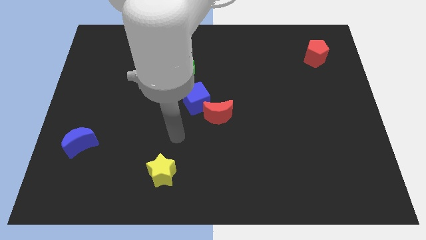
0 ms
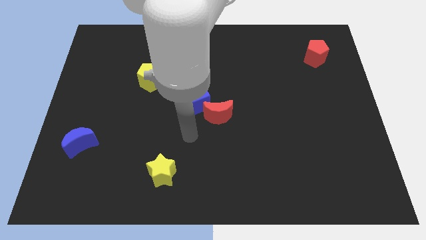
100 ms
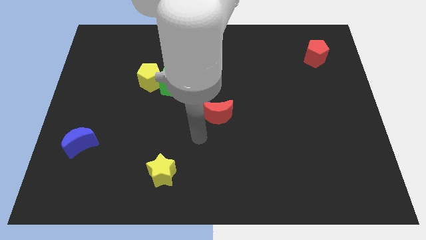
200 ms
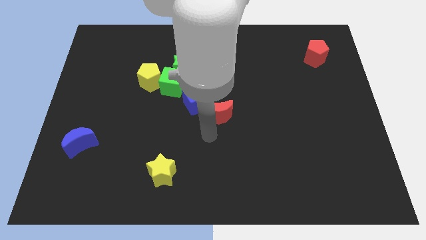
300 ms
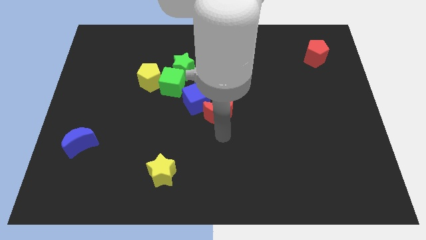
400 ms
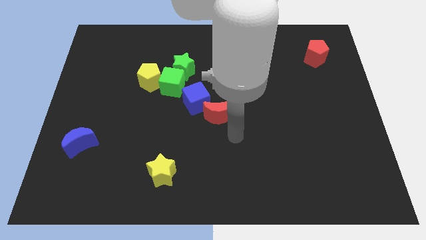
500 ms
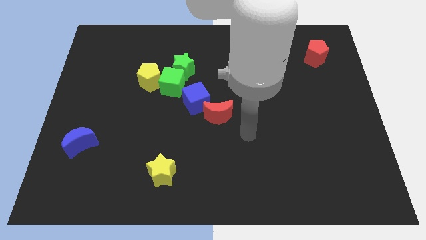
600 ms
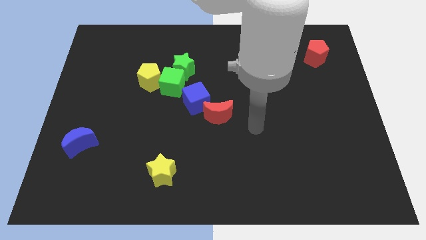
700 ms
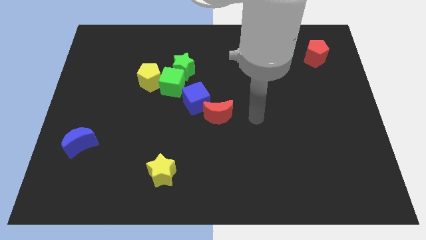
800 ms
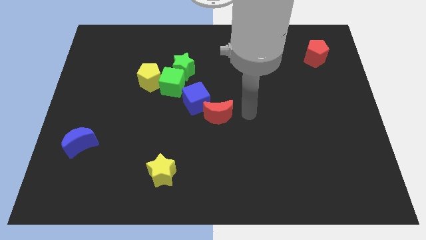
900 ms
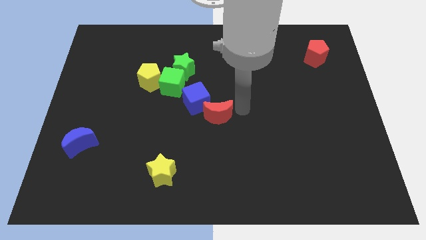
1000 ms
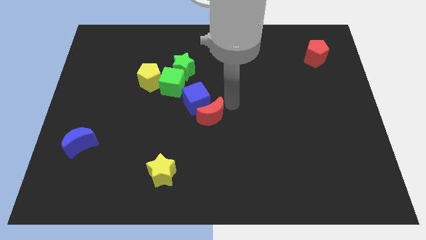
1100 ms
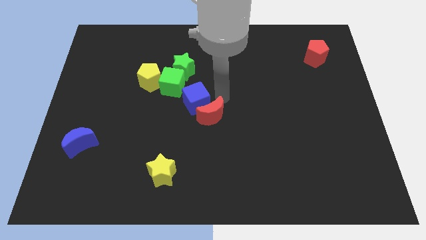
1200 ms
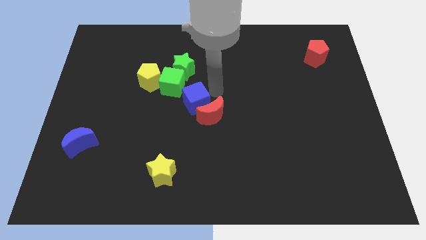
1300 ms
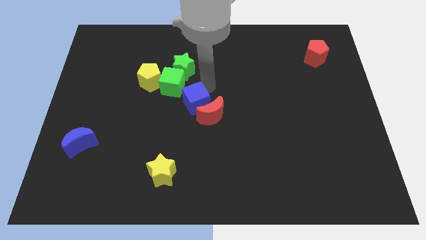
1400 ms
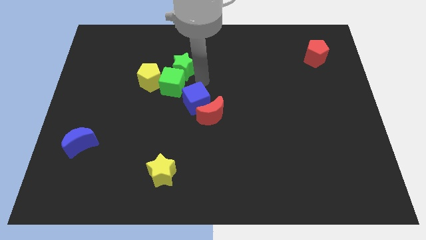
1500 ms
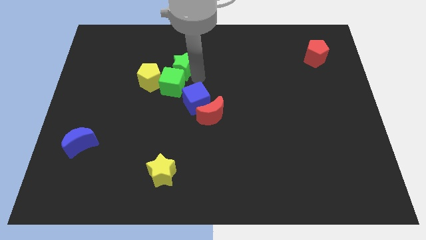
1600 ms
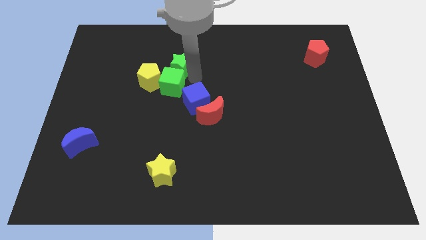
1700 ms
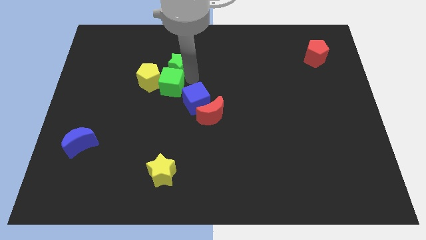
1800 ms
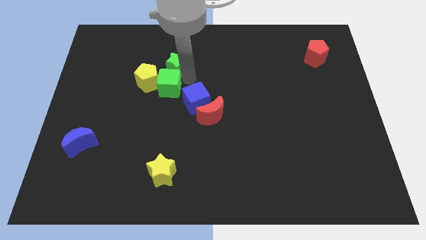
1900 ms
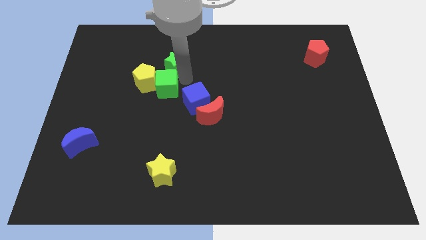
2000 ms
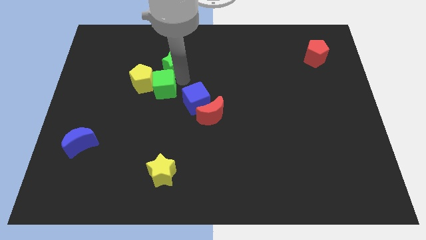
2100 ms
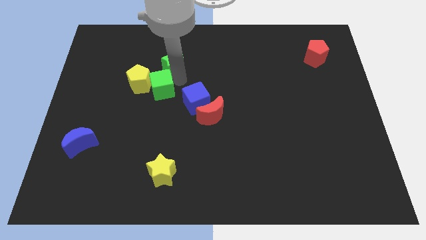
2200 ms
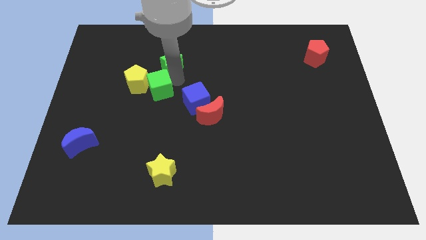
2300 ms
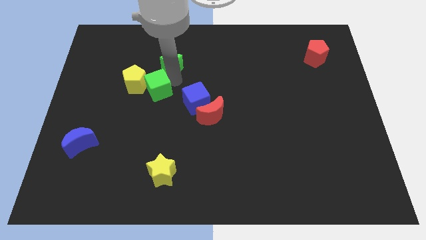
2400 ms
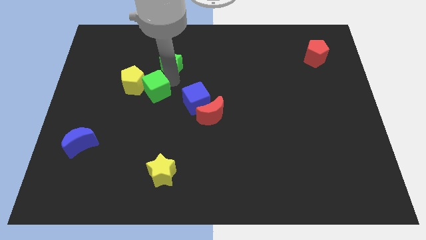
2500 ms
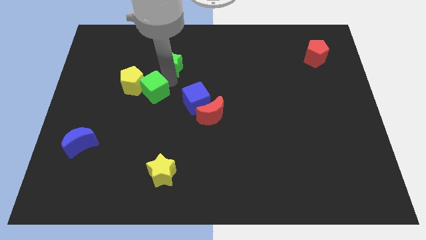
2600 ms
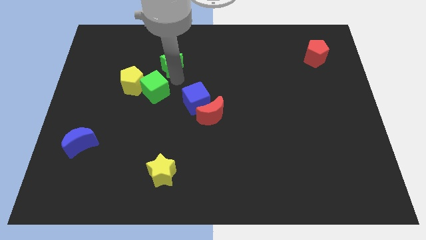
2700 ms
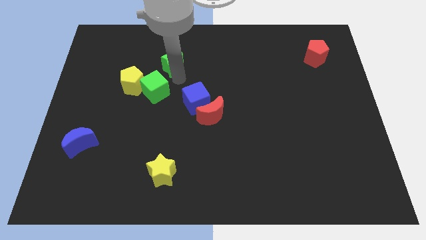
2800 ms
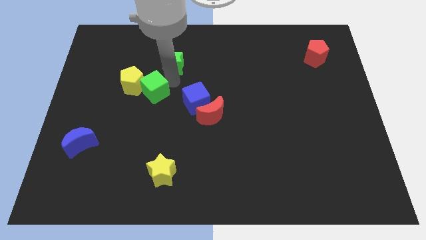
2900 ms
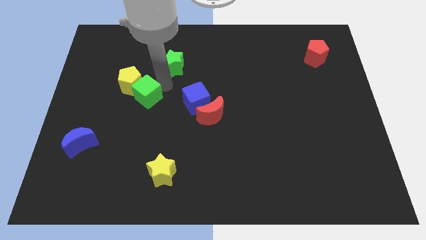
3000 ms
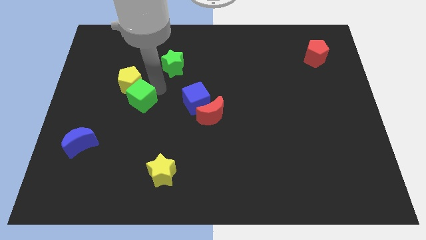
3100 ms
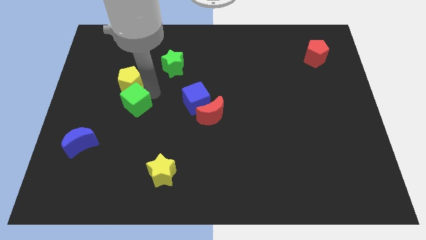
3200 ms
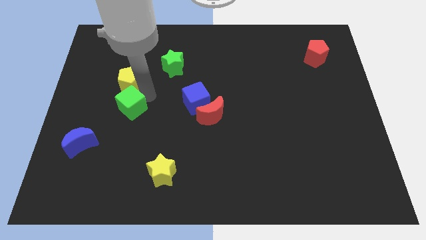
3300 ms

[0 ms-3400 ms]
move the green cube away from the green star, yellow pentagon, and blue cube

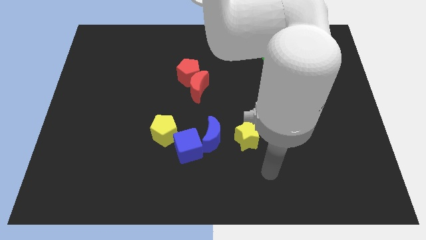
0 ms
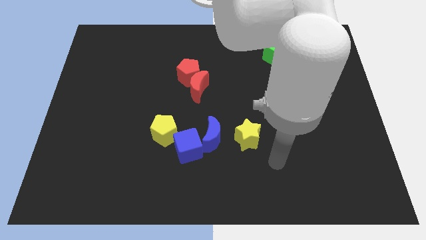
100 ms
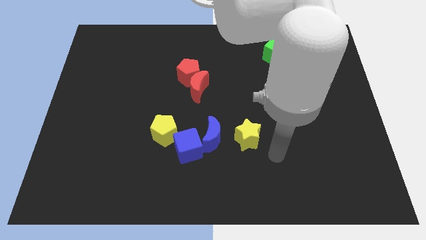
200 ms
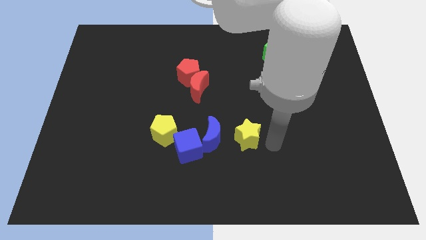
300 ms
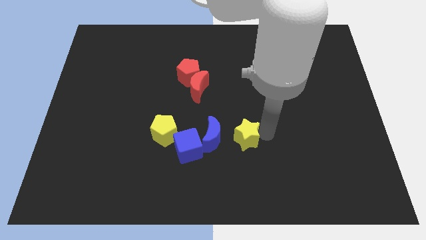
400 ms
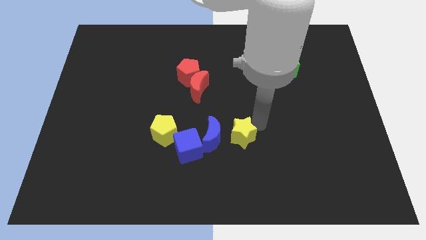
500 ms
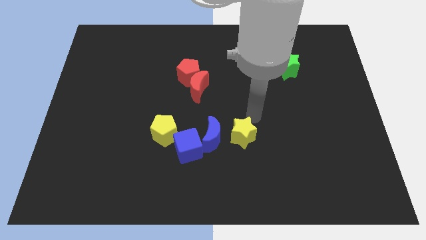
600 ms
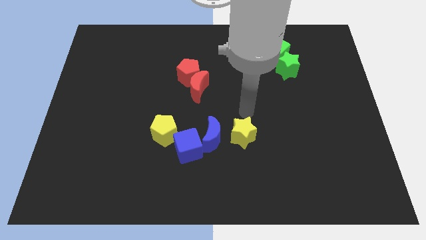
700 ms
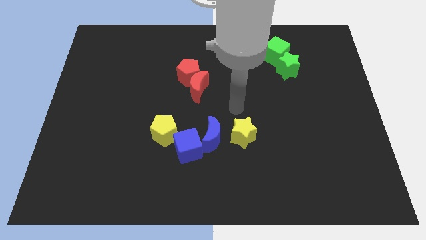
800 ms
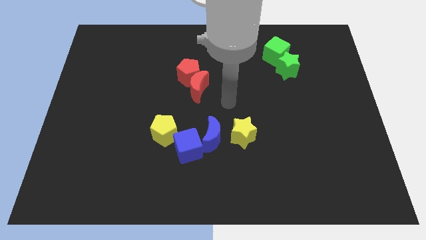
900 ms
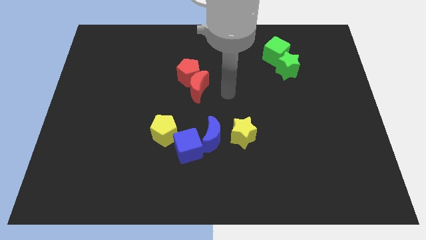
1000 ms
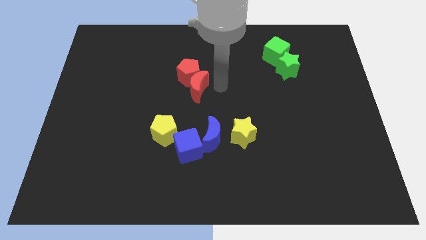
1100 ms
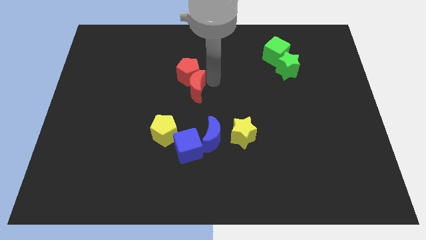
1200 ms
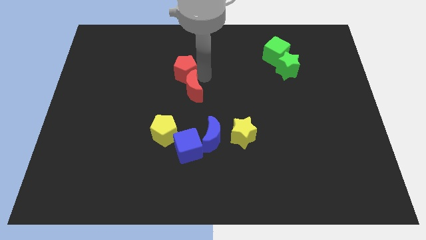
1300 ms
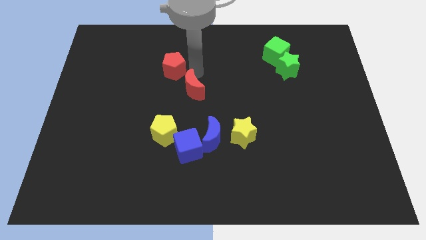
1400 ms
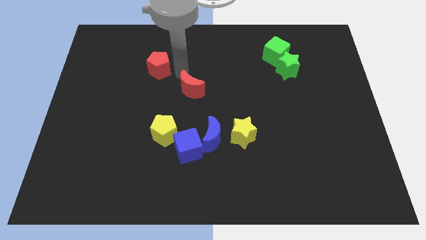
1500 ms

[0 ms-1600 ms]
separate the red moon from the red pentagon

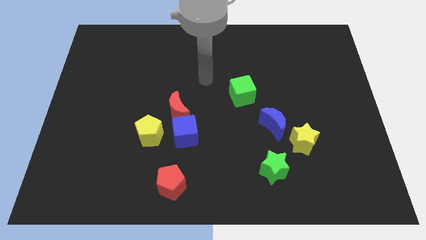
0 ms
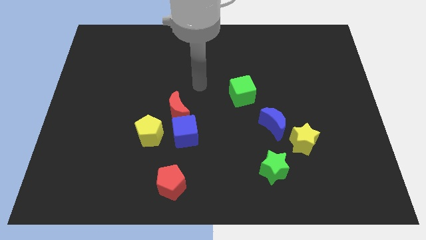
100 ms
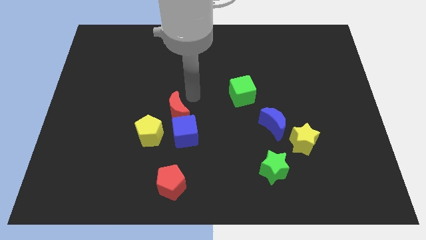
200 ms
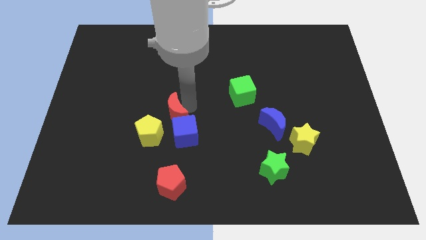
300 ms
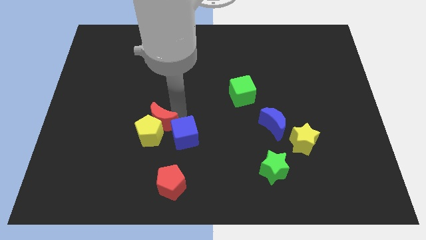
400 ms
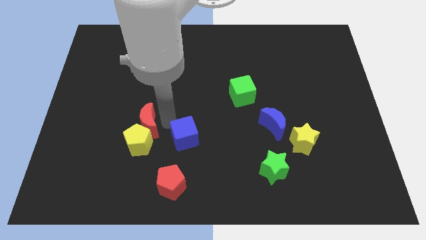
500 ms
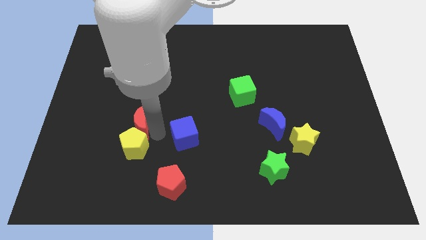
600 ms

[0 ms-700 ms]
pull the blue cube apart from the red moon and yellow pentagon

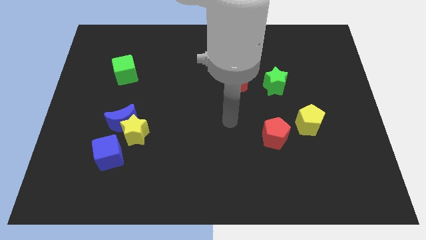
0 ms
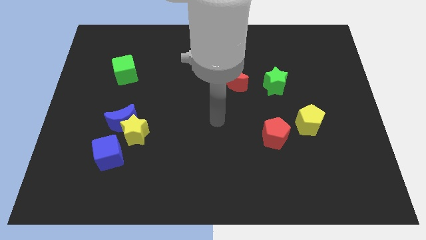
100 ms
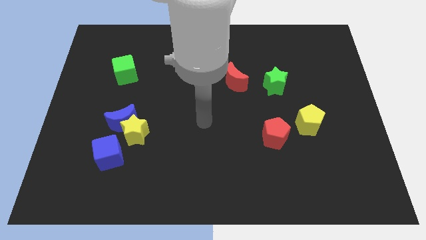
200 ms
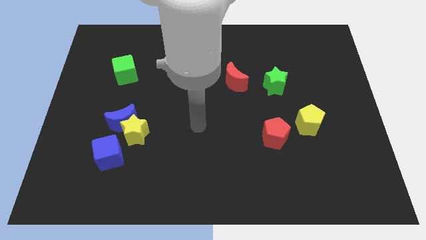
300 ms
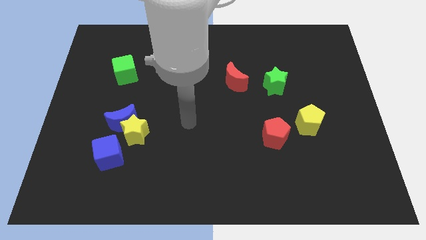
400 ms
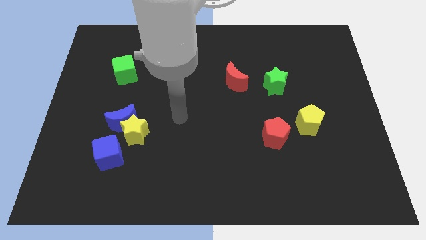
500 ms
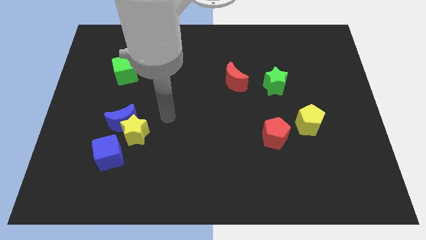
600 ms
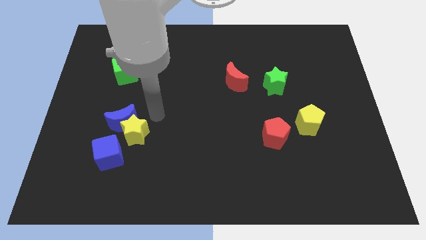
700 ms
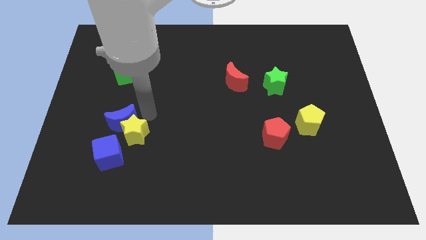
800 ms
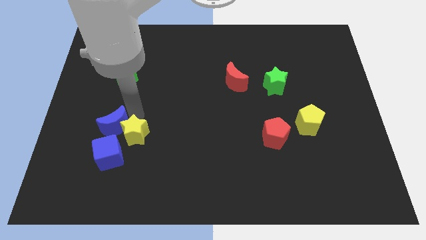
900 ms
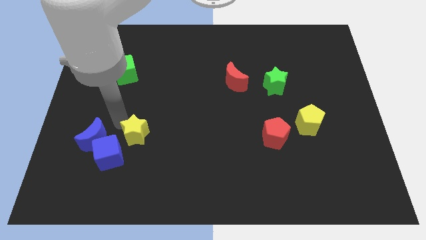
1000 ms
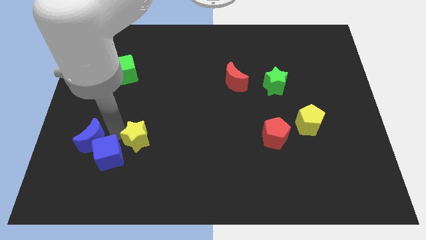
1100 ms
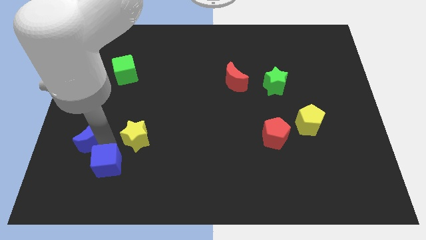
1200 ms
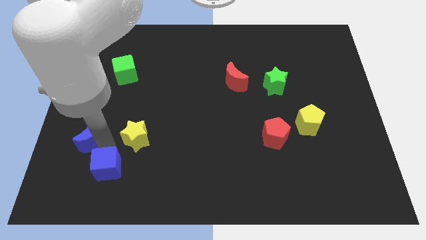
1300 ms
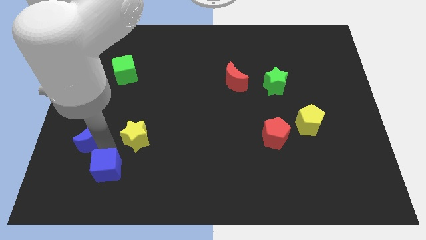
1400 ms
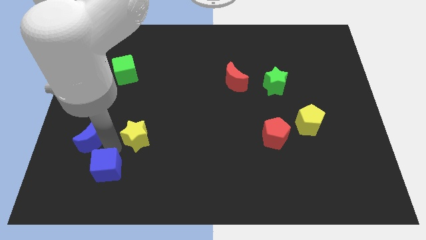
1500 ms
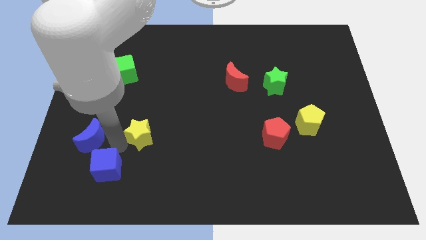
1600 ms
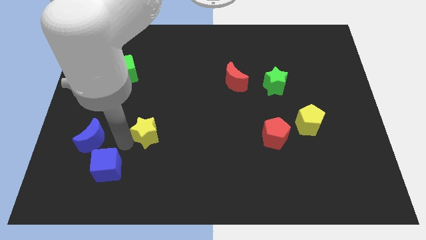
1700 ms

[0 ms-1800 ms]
move the yellow star away from the blue moon and blue cube

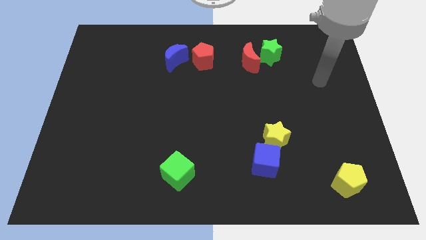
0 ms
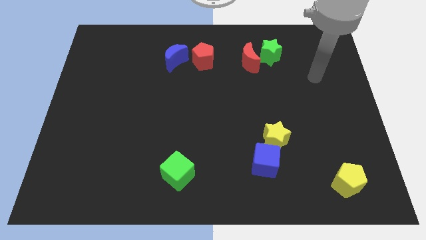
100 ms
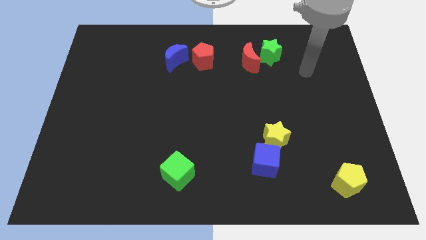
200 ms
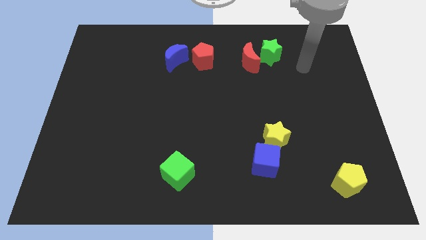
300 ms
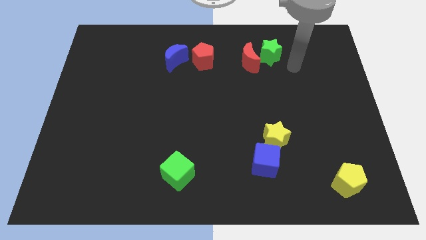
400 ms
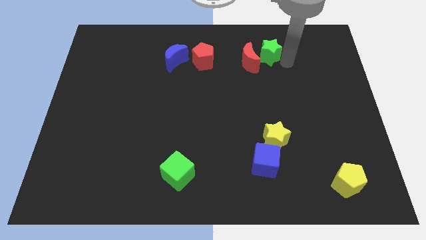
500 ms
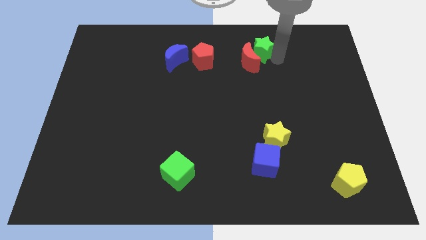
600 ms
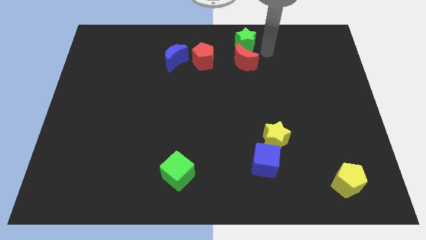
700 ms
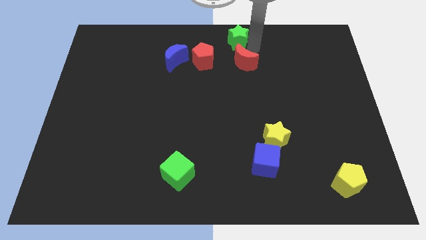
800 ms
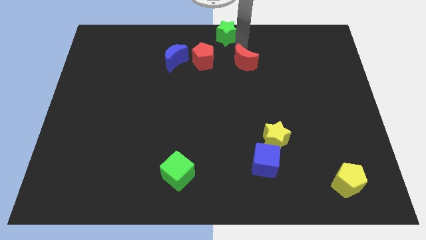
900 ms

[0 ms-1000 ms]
move the red moon away from the green star

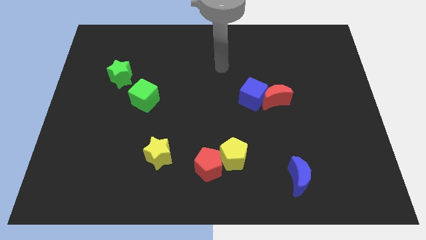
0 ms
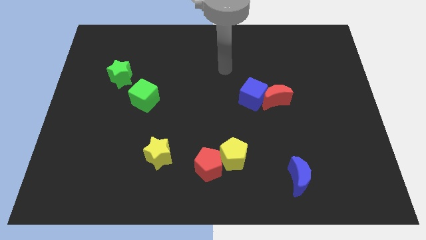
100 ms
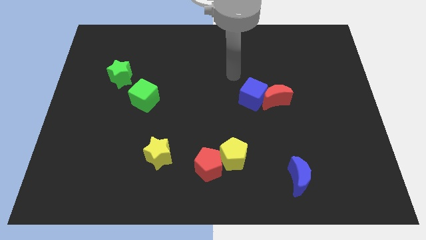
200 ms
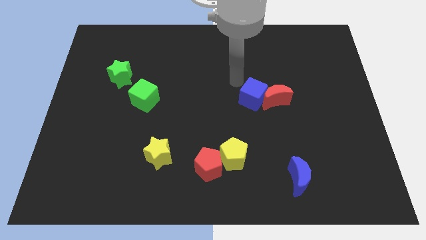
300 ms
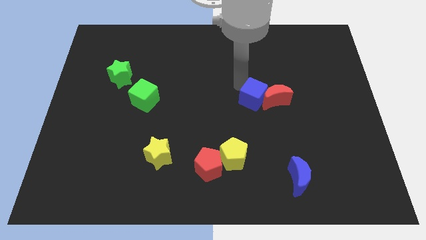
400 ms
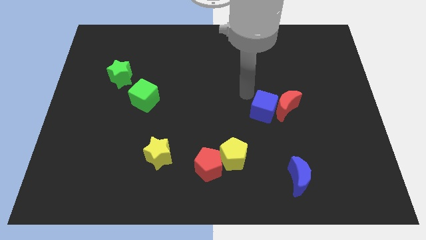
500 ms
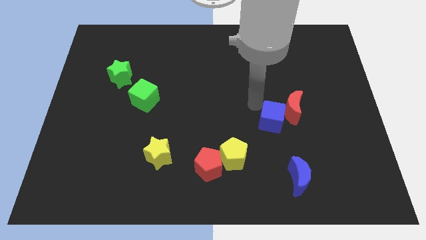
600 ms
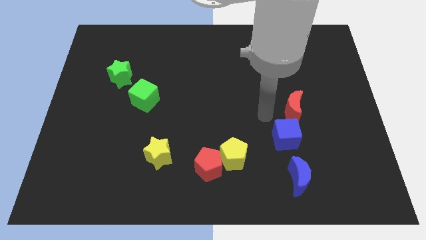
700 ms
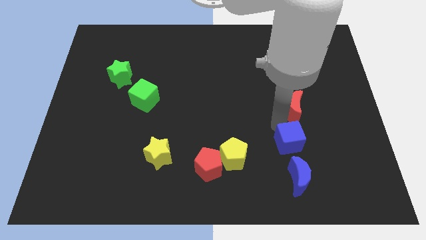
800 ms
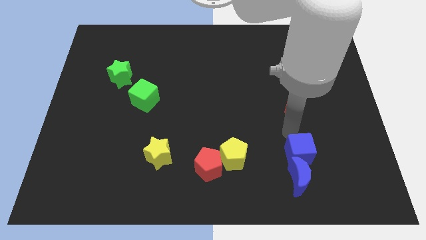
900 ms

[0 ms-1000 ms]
pull the red moon apart from the blue cube
